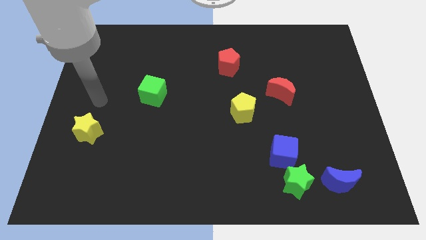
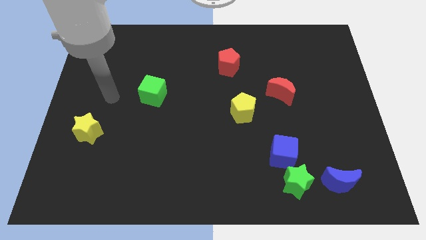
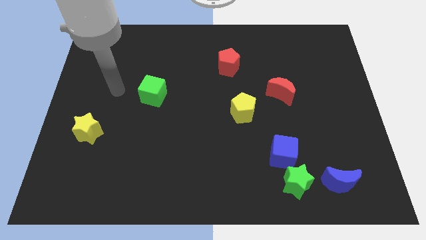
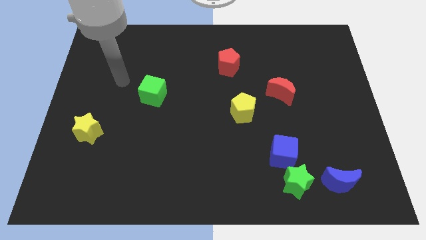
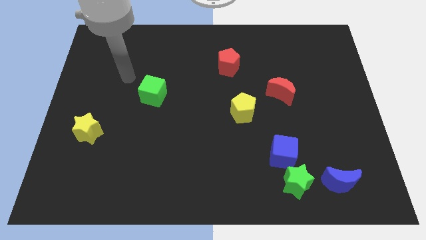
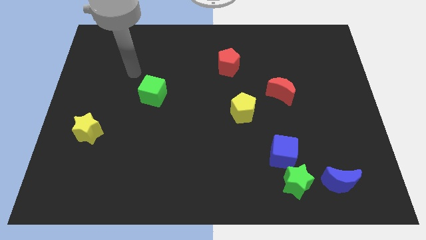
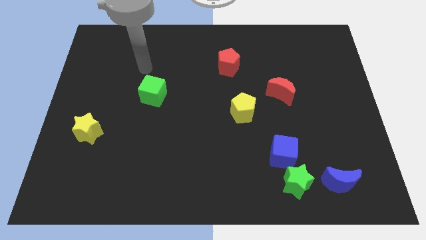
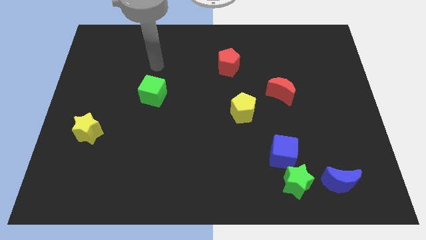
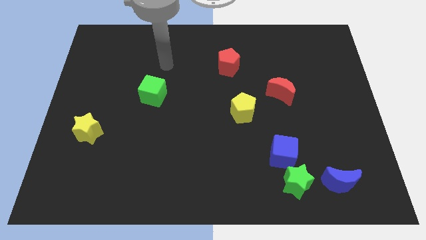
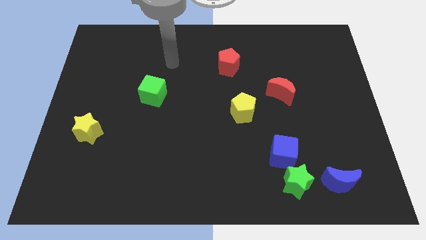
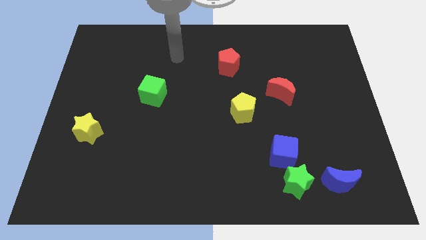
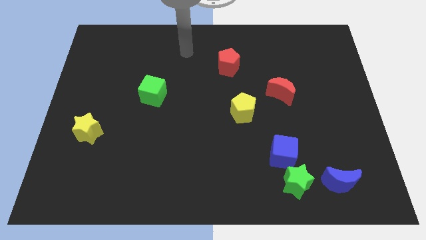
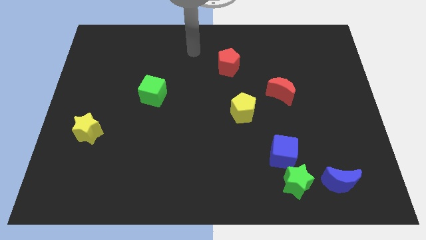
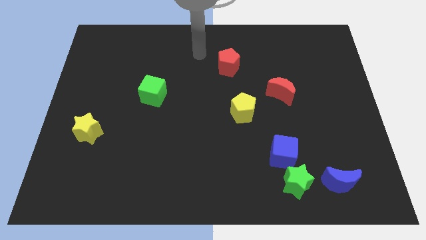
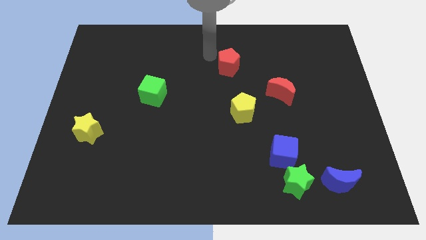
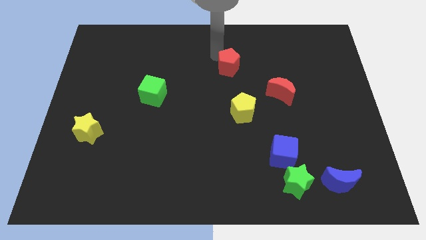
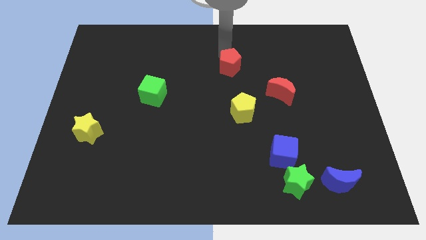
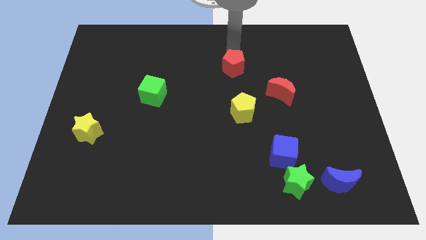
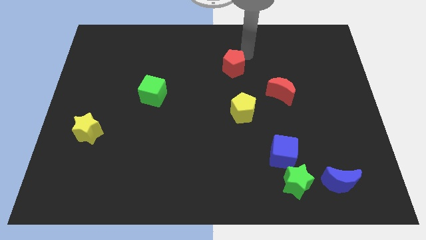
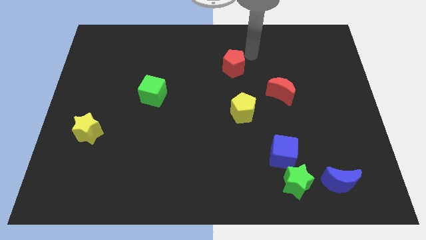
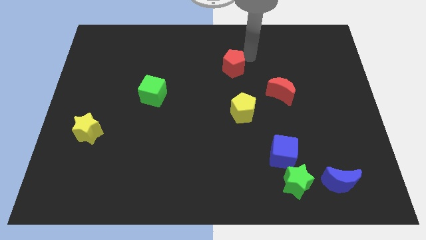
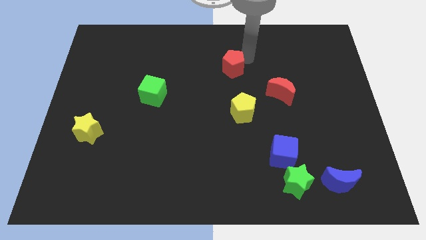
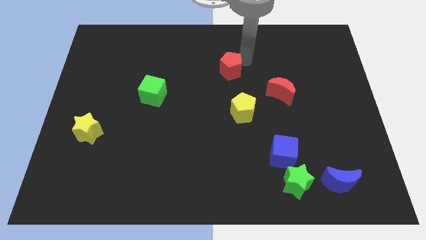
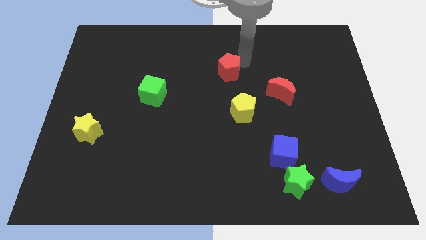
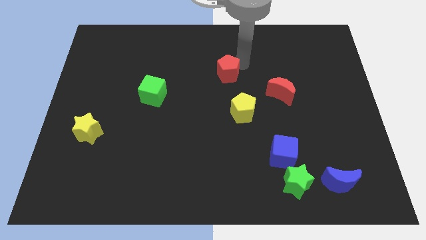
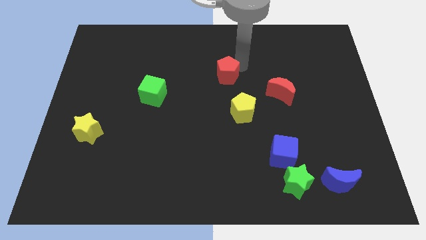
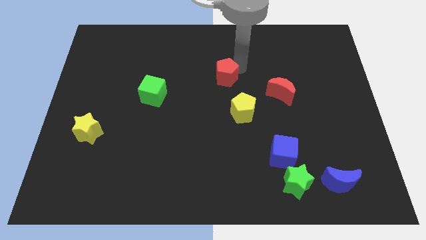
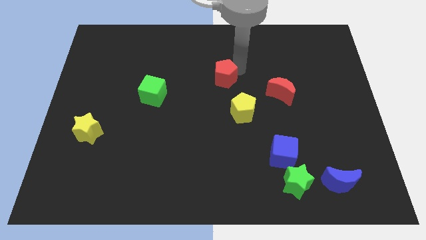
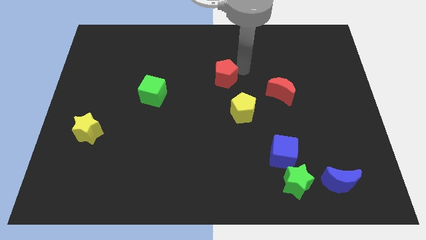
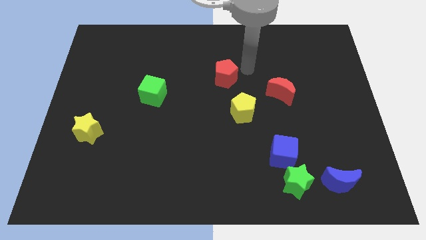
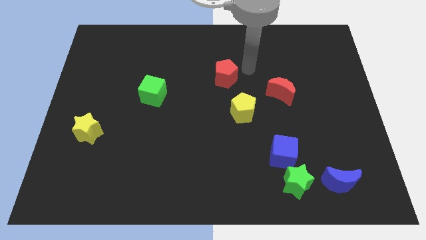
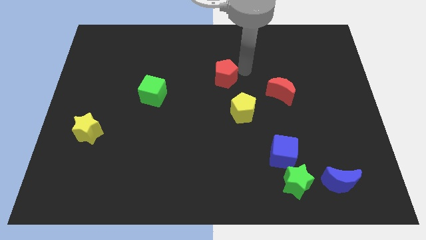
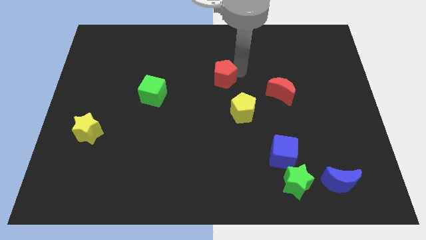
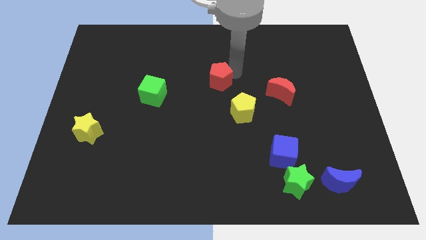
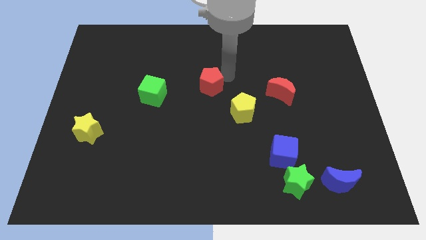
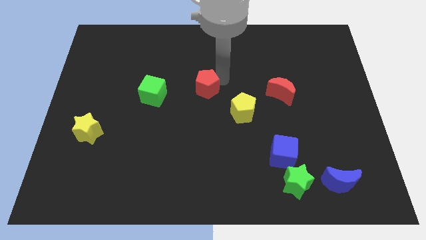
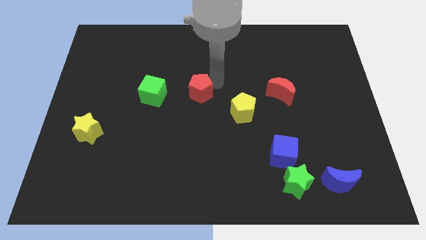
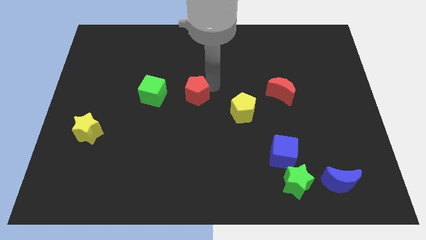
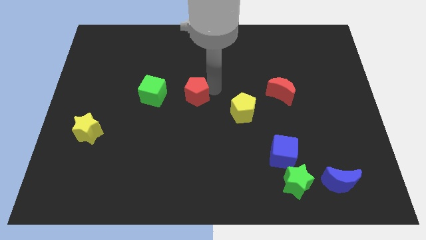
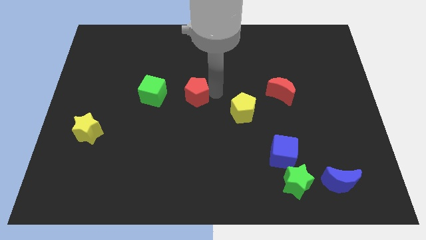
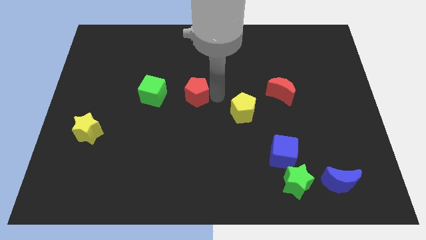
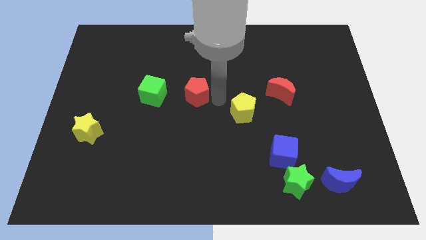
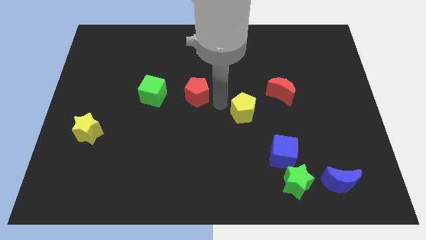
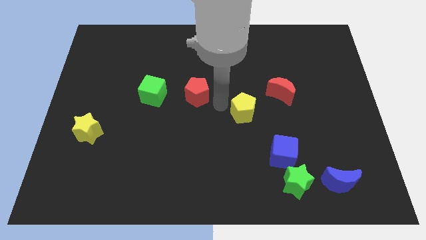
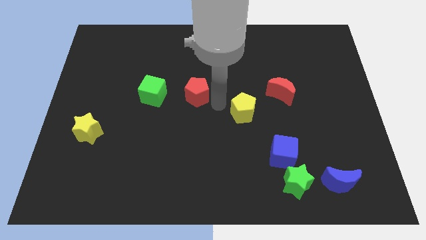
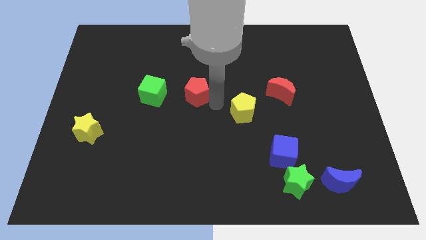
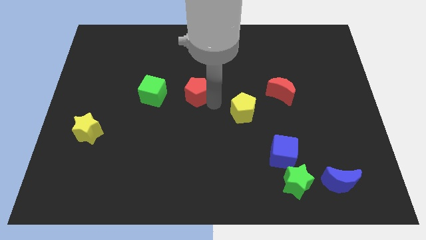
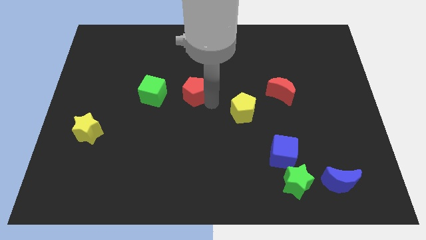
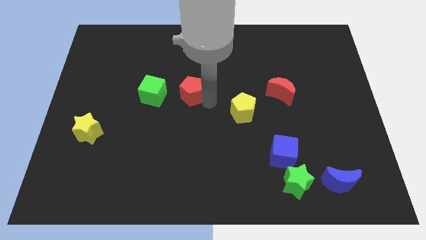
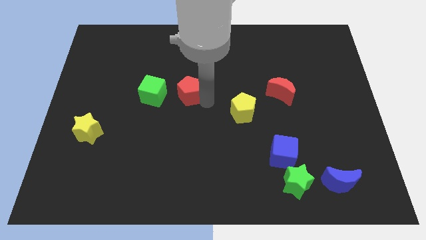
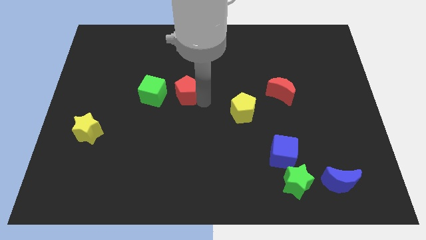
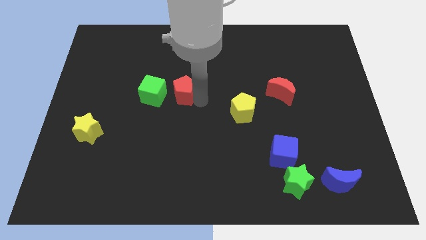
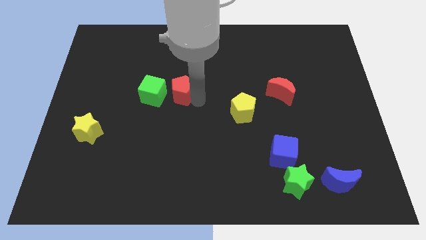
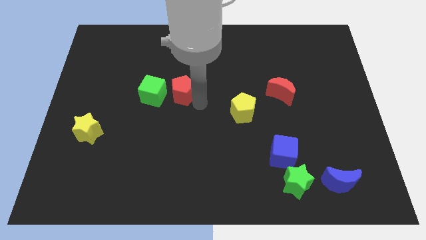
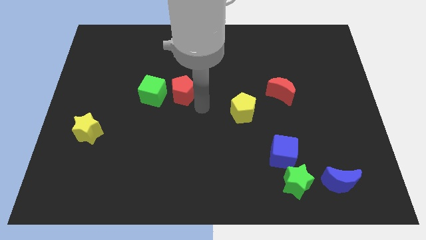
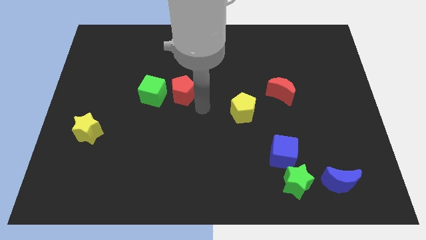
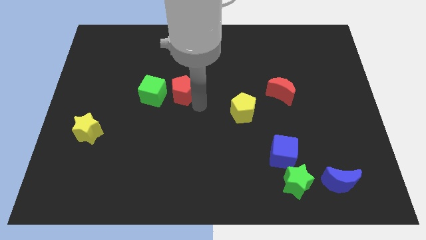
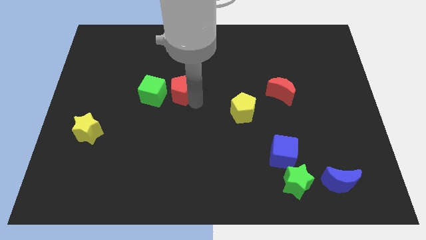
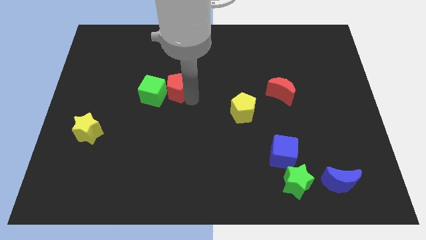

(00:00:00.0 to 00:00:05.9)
move the red pentagon next to the green cube

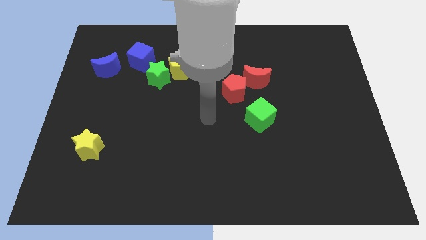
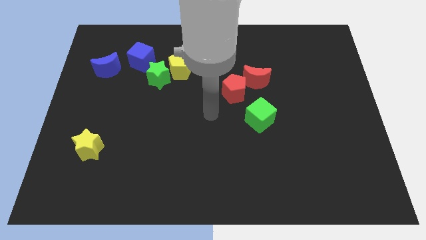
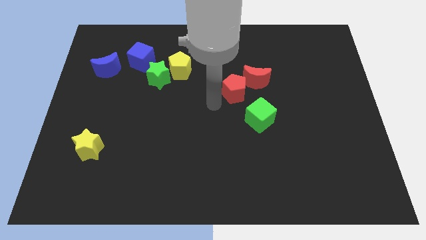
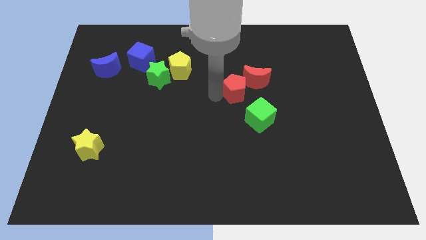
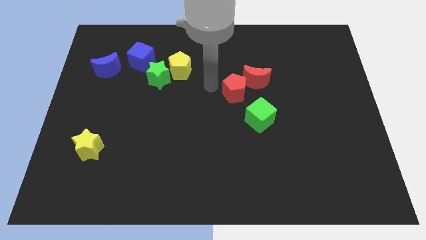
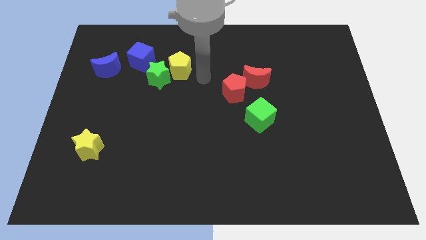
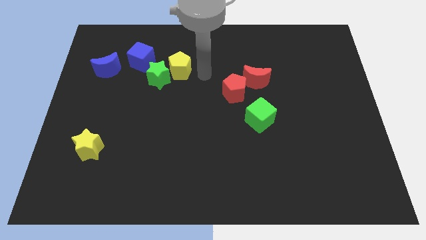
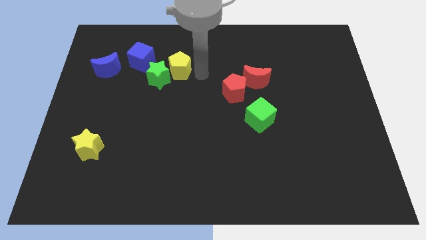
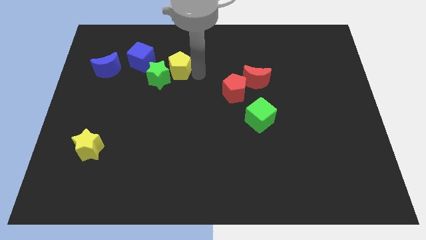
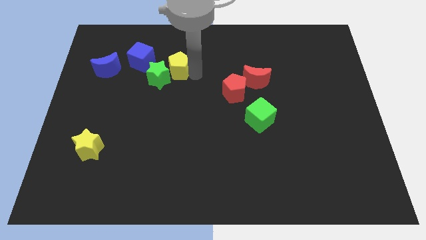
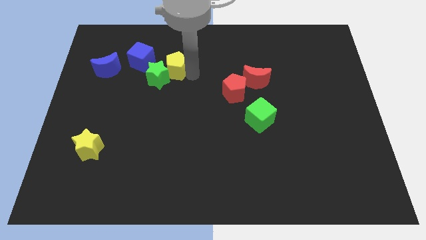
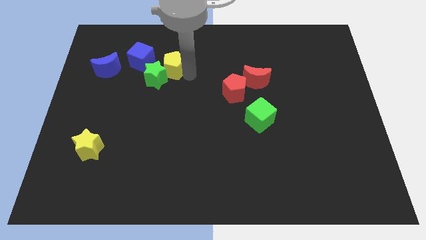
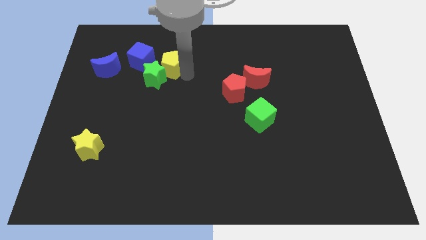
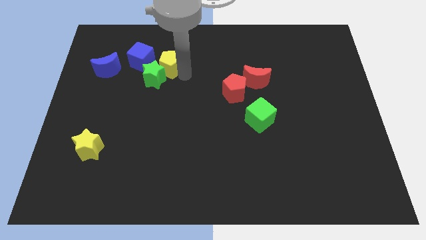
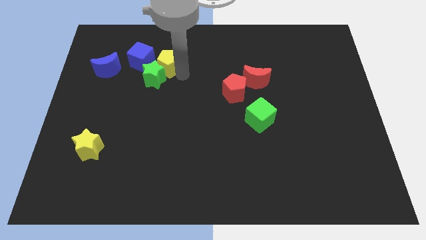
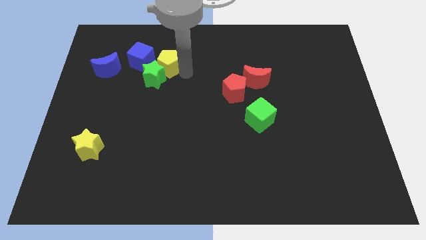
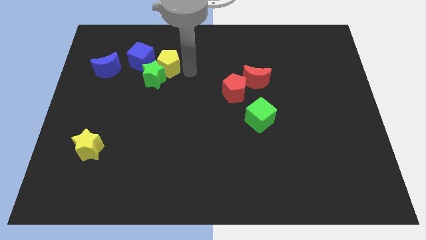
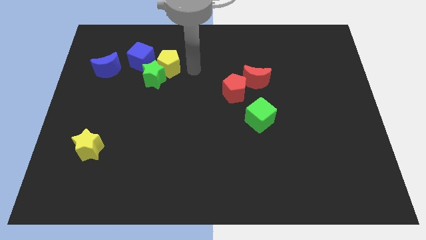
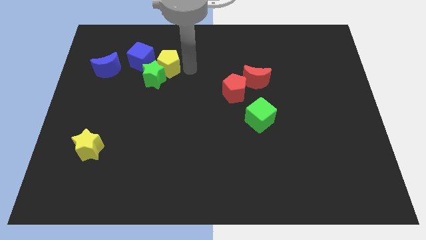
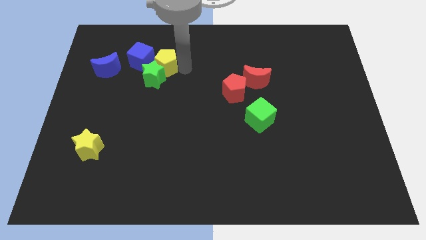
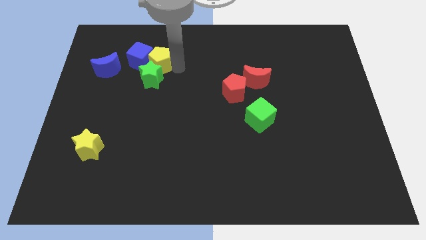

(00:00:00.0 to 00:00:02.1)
move the yellow pentagon towards the blue cube
